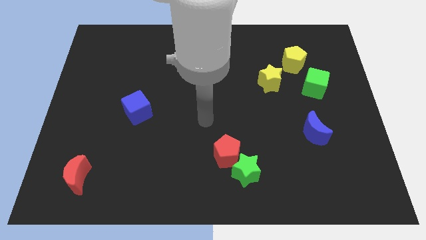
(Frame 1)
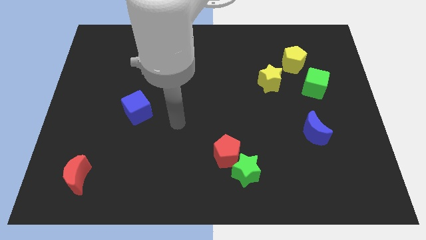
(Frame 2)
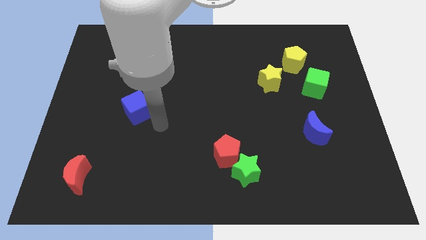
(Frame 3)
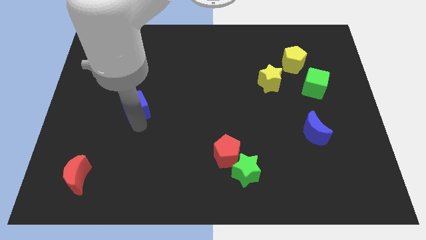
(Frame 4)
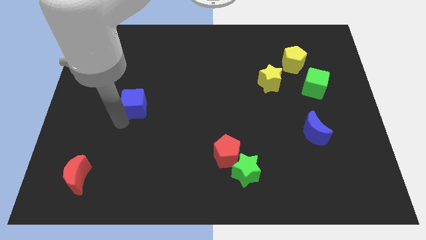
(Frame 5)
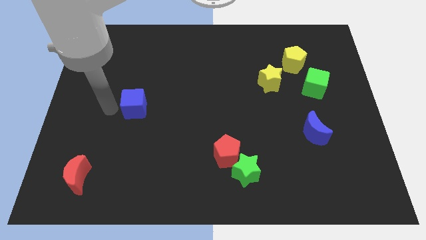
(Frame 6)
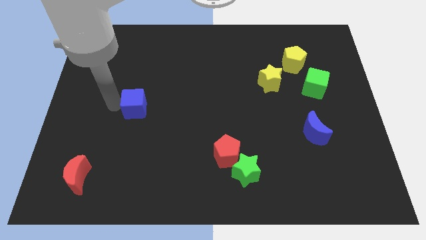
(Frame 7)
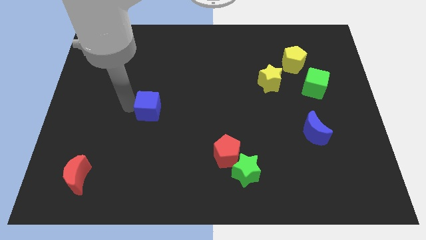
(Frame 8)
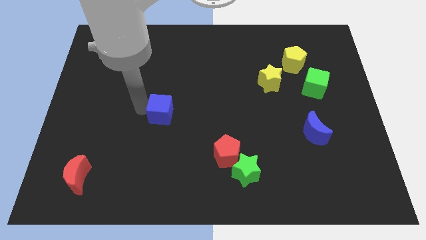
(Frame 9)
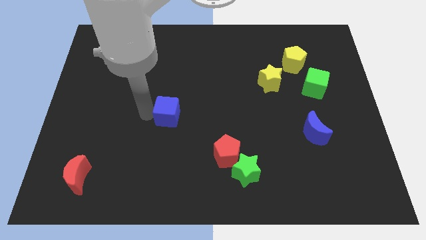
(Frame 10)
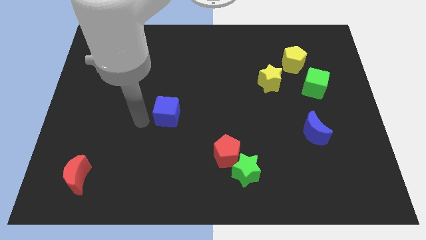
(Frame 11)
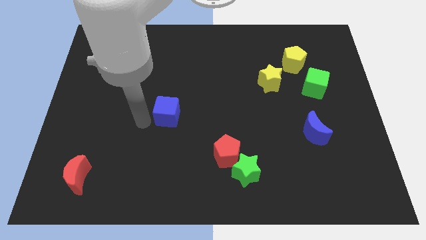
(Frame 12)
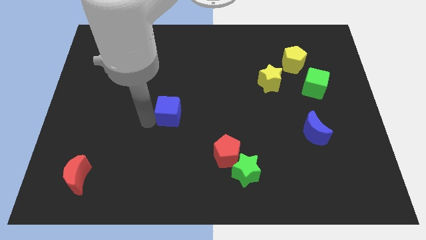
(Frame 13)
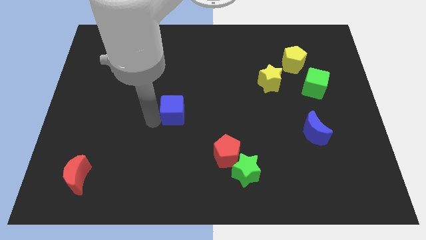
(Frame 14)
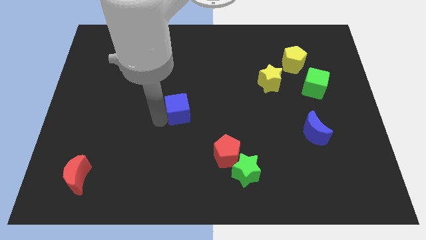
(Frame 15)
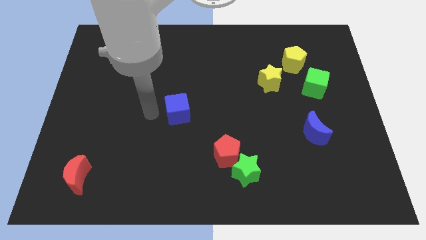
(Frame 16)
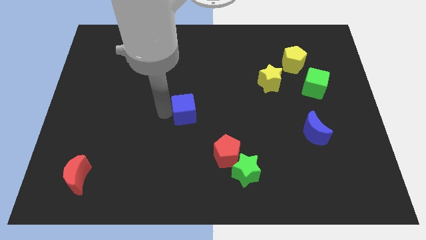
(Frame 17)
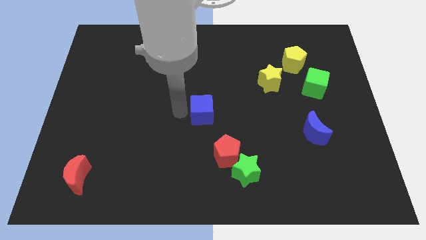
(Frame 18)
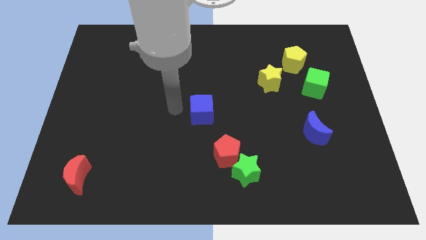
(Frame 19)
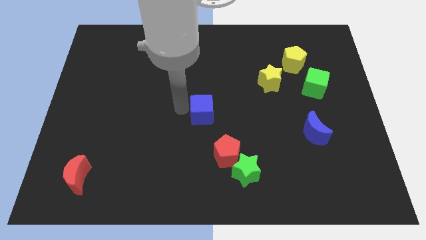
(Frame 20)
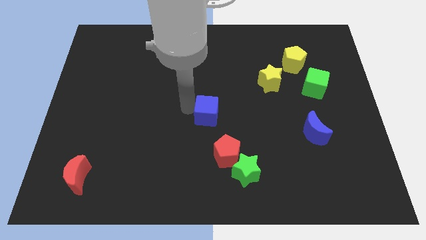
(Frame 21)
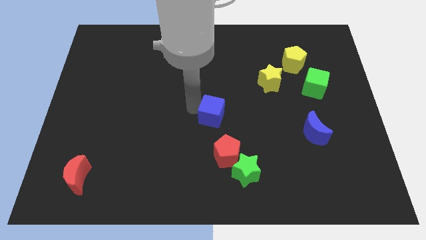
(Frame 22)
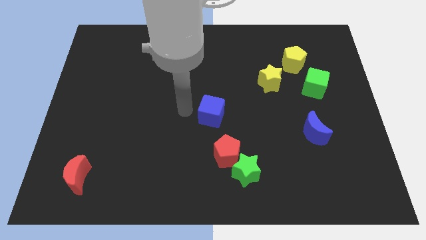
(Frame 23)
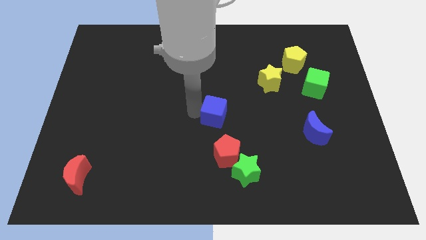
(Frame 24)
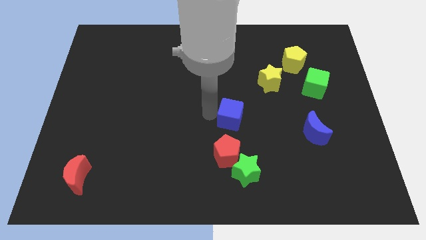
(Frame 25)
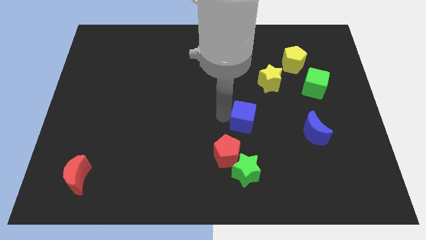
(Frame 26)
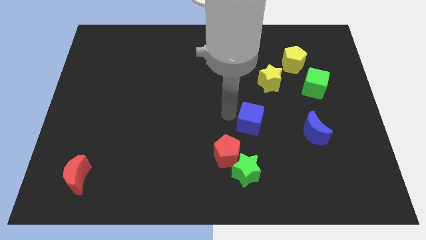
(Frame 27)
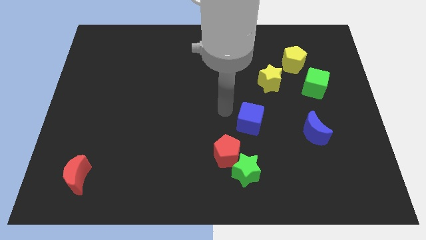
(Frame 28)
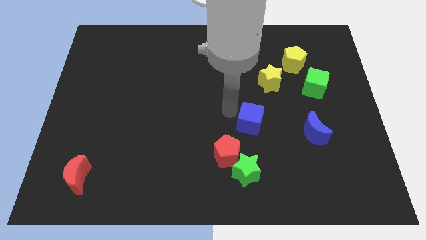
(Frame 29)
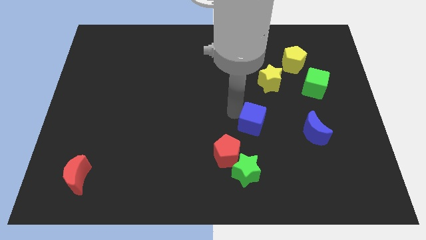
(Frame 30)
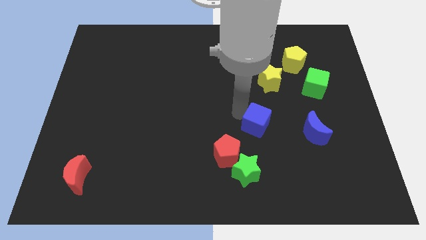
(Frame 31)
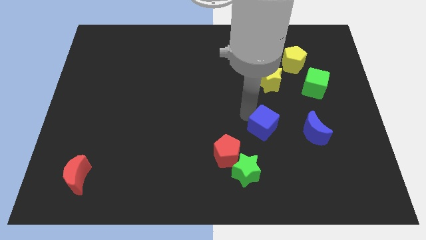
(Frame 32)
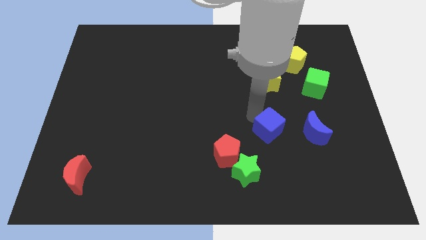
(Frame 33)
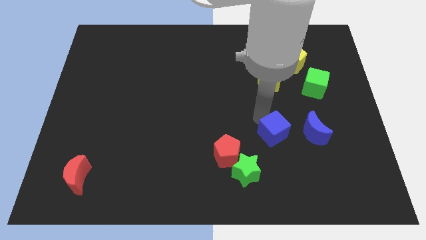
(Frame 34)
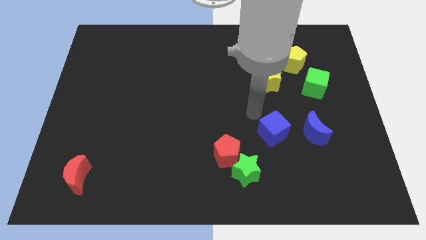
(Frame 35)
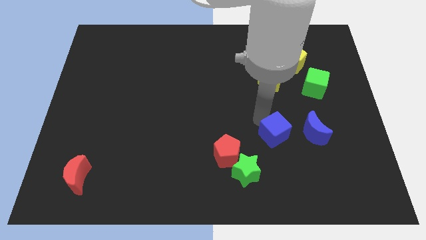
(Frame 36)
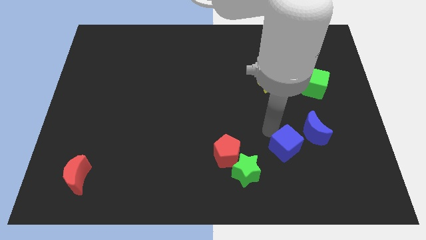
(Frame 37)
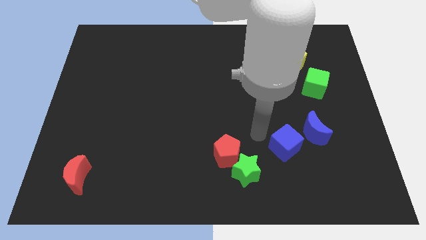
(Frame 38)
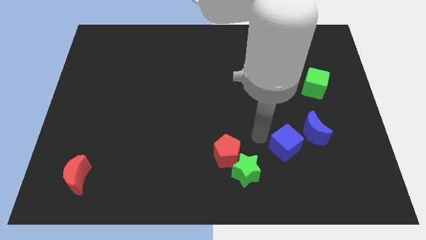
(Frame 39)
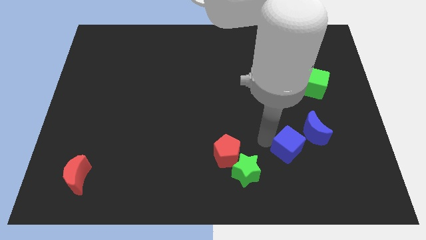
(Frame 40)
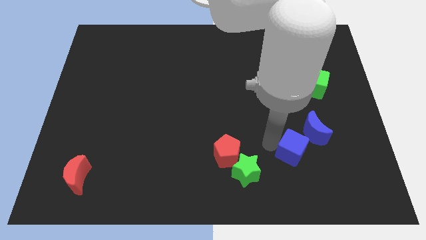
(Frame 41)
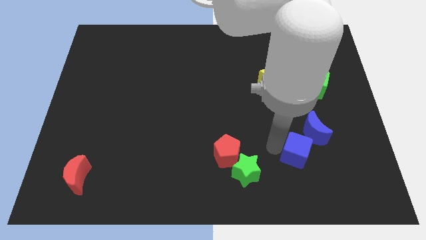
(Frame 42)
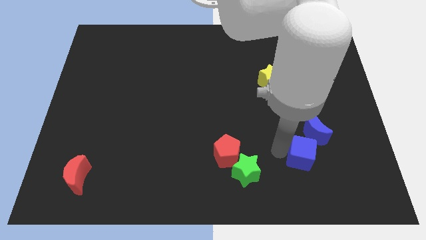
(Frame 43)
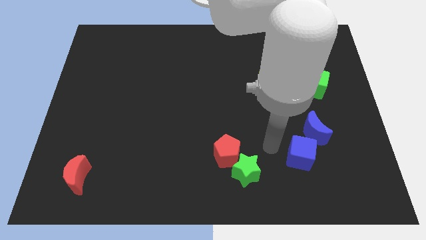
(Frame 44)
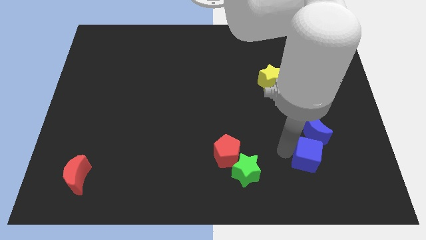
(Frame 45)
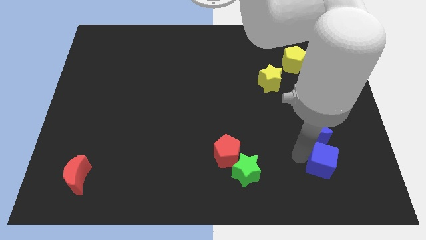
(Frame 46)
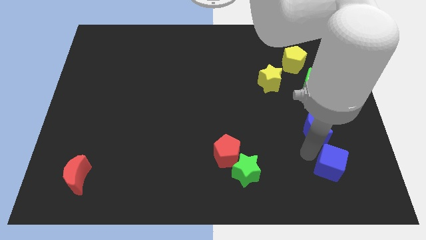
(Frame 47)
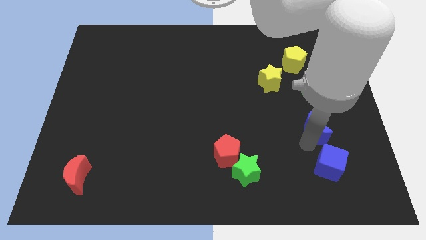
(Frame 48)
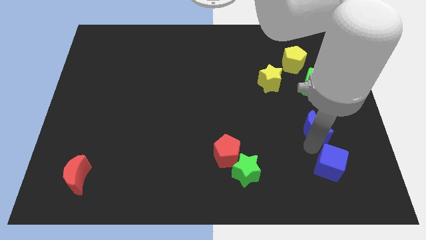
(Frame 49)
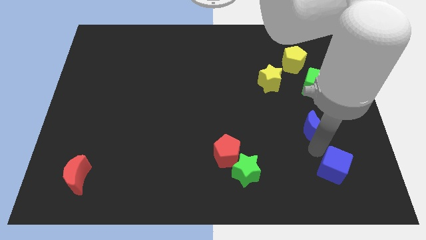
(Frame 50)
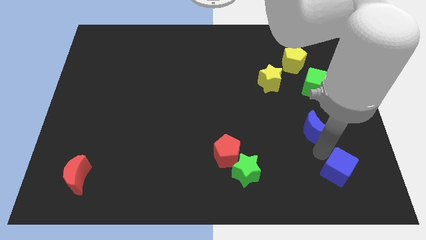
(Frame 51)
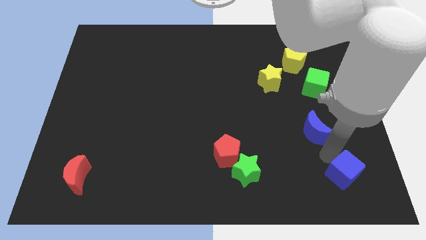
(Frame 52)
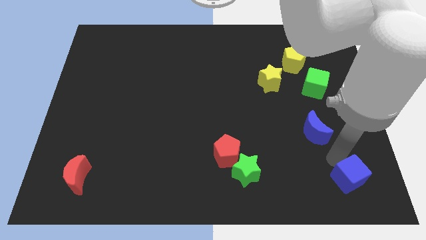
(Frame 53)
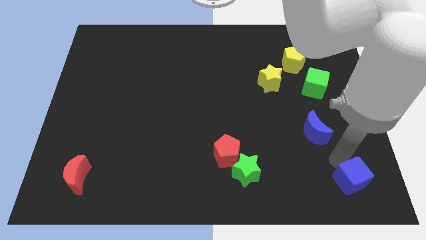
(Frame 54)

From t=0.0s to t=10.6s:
push the blue cube to the bottom right
